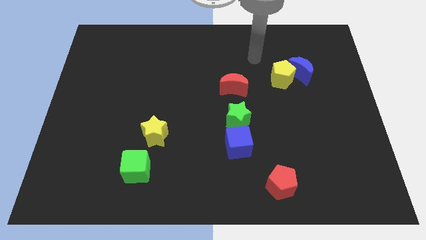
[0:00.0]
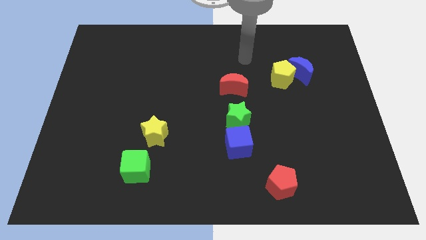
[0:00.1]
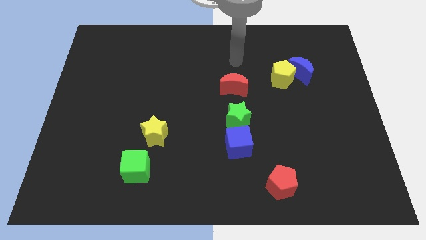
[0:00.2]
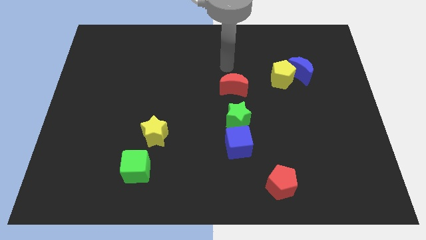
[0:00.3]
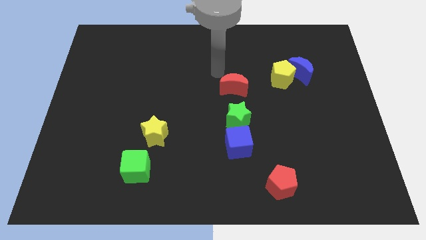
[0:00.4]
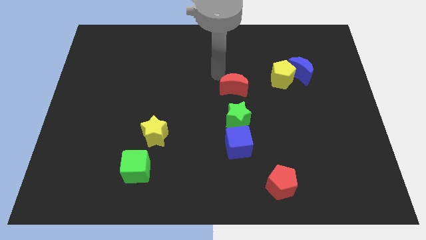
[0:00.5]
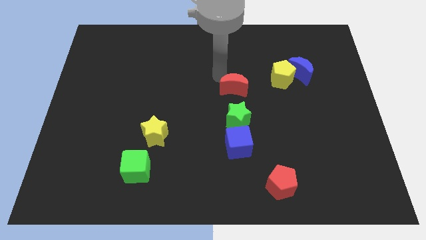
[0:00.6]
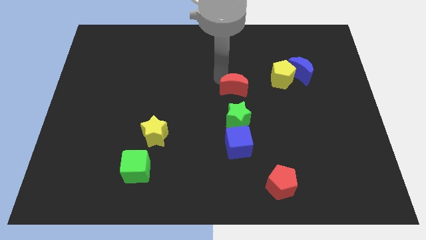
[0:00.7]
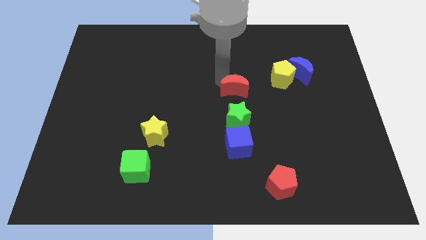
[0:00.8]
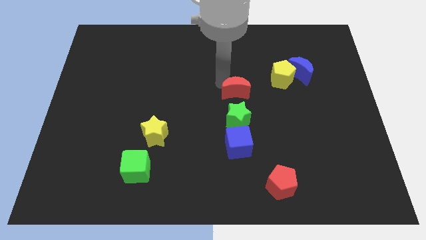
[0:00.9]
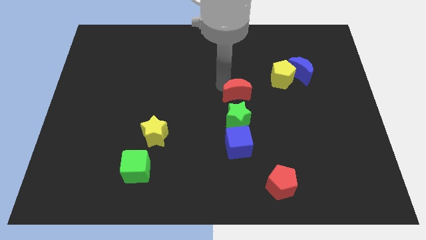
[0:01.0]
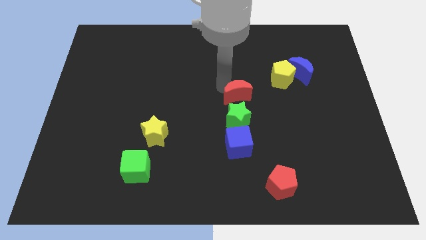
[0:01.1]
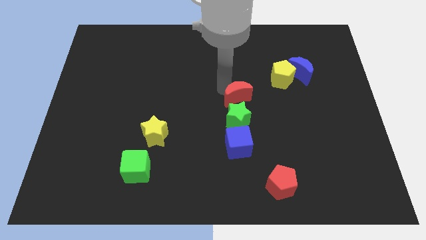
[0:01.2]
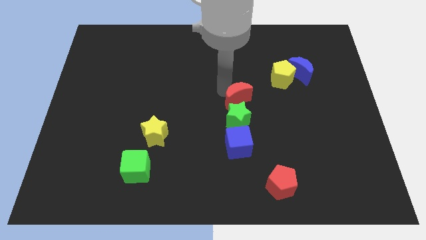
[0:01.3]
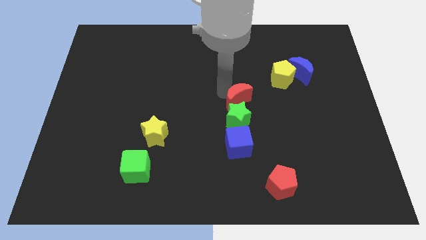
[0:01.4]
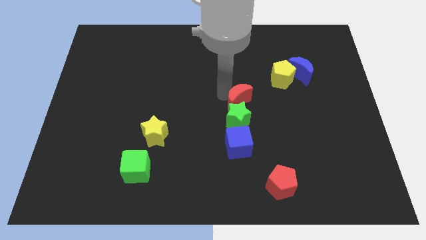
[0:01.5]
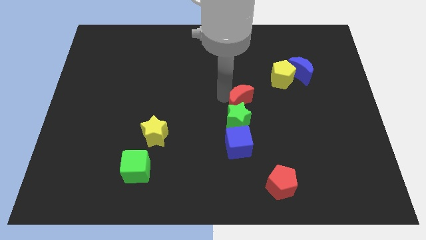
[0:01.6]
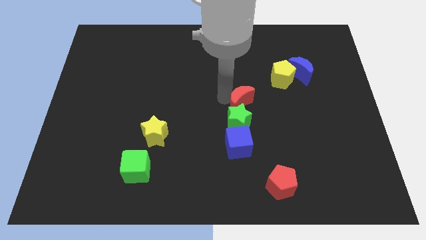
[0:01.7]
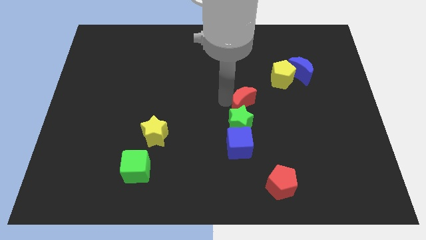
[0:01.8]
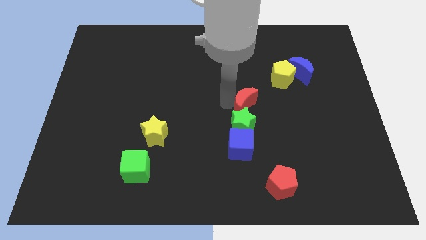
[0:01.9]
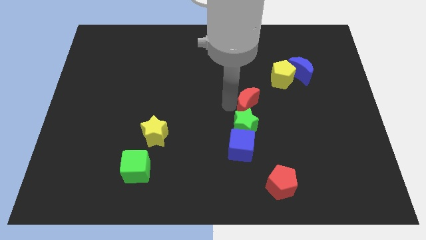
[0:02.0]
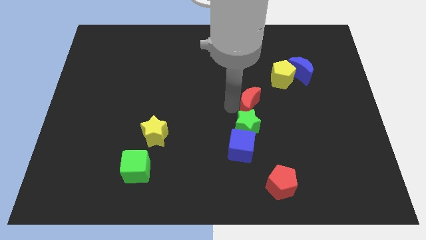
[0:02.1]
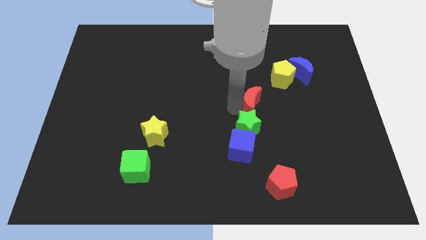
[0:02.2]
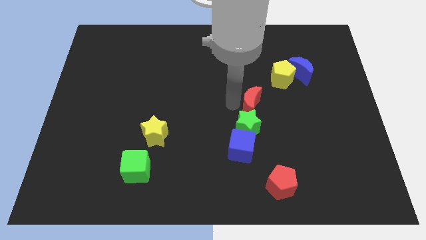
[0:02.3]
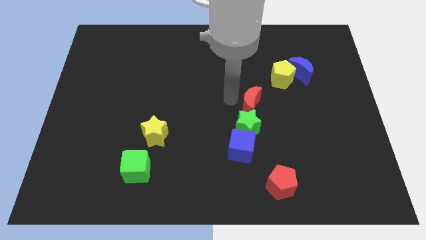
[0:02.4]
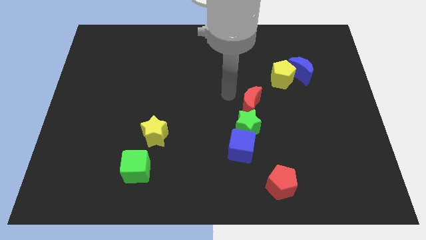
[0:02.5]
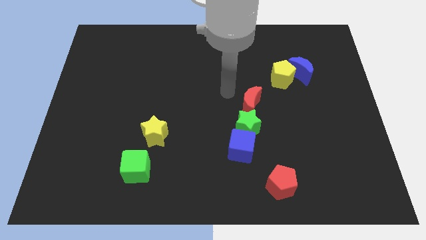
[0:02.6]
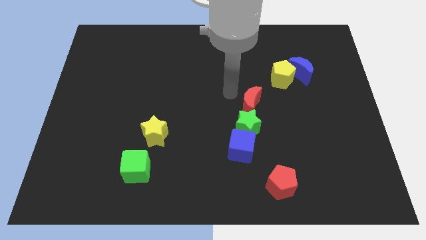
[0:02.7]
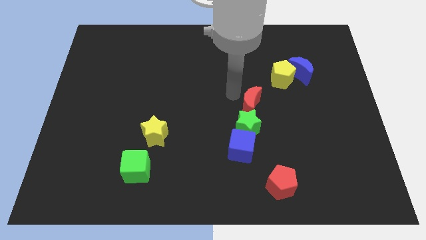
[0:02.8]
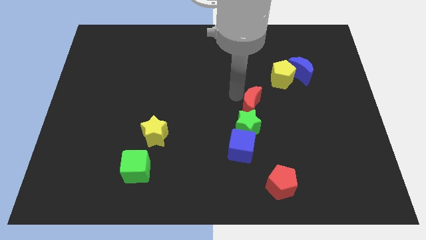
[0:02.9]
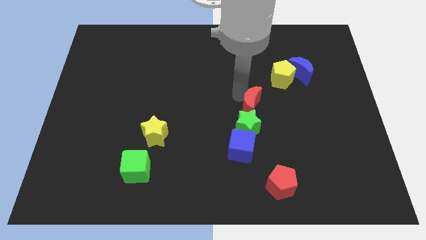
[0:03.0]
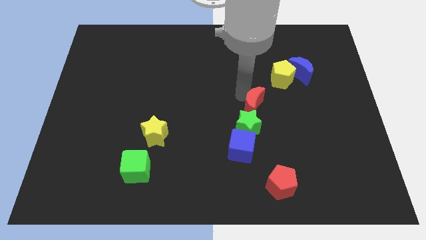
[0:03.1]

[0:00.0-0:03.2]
slide the red moon down and then right a bit

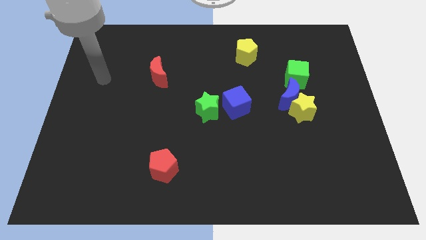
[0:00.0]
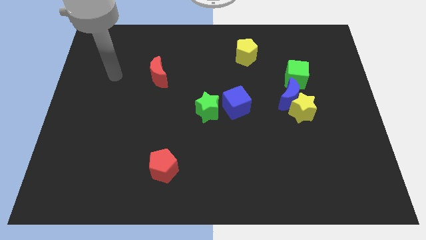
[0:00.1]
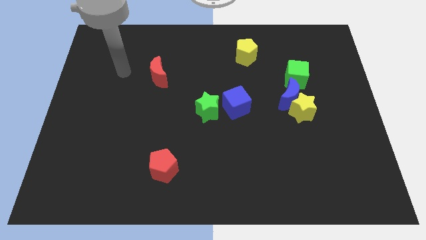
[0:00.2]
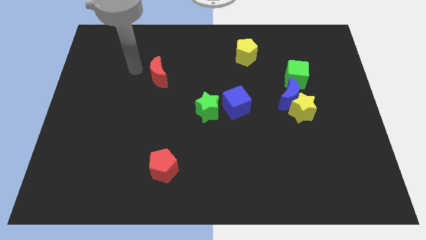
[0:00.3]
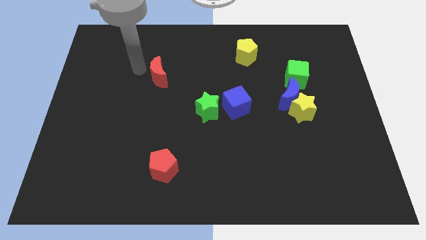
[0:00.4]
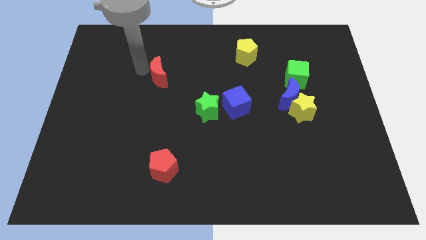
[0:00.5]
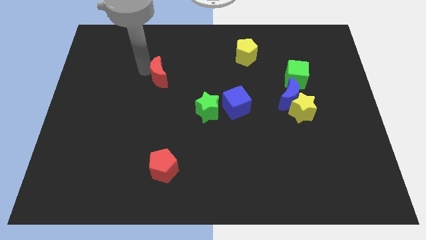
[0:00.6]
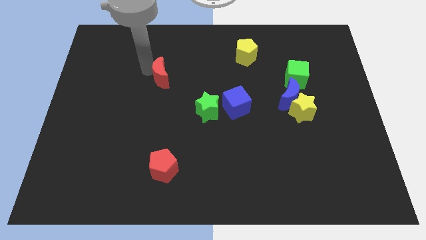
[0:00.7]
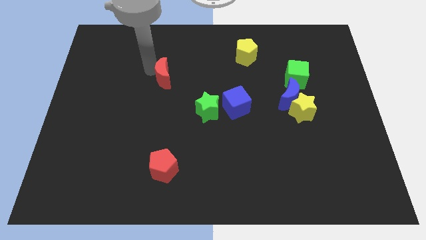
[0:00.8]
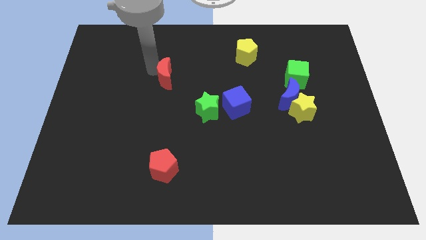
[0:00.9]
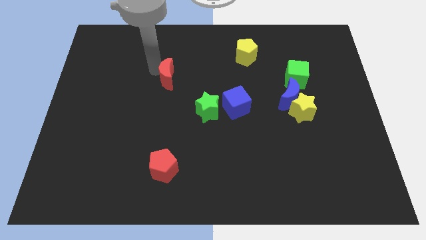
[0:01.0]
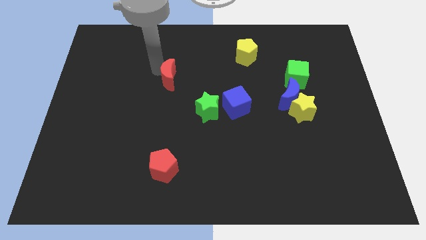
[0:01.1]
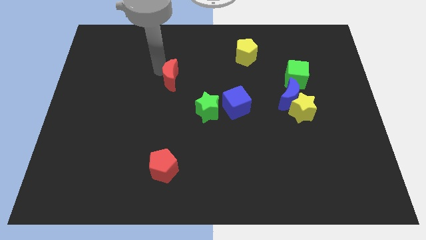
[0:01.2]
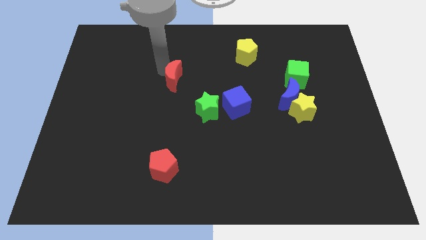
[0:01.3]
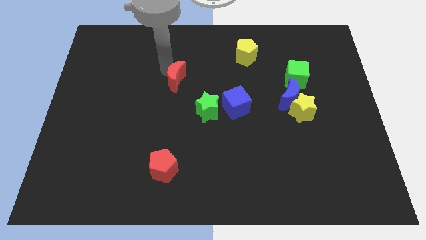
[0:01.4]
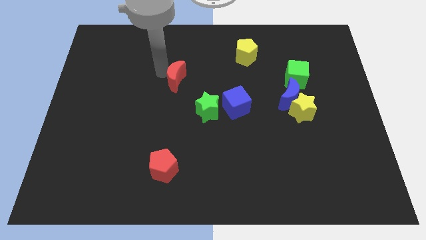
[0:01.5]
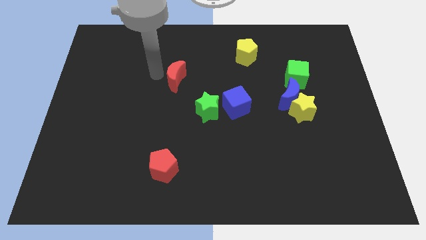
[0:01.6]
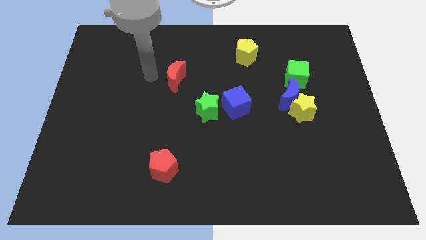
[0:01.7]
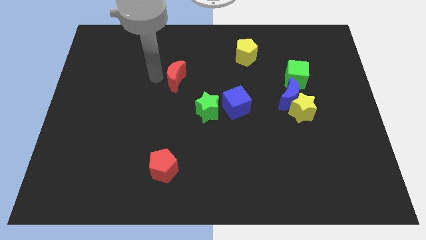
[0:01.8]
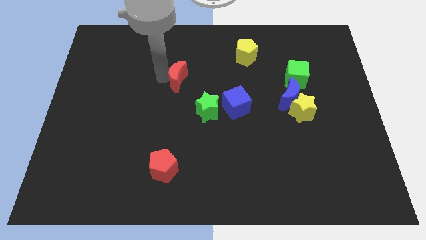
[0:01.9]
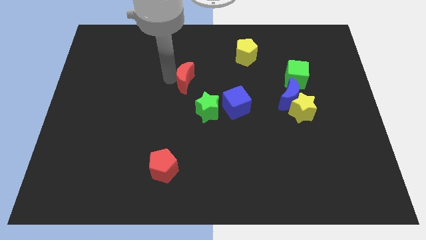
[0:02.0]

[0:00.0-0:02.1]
push the red moon right a little bit

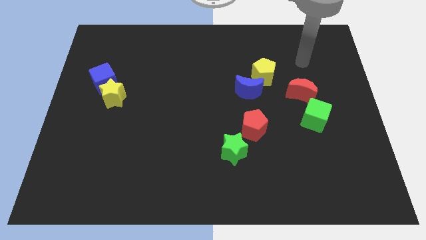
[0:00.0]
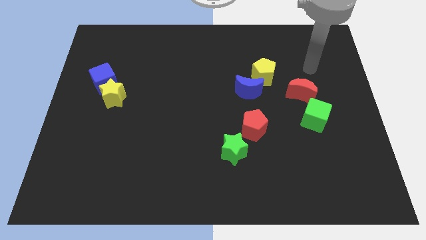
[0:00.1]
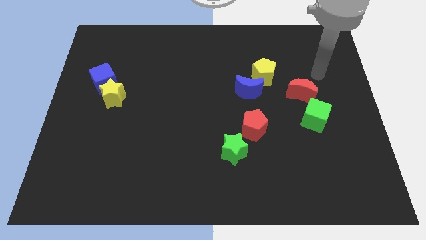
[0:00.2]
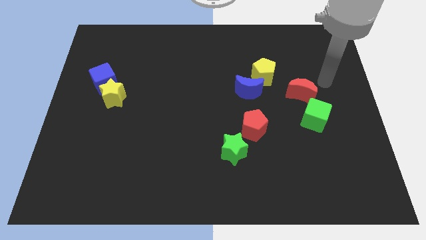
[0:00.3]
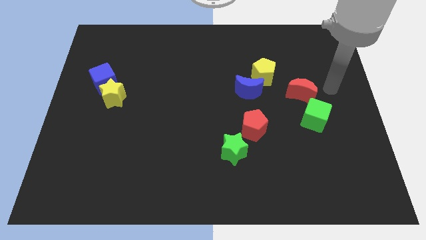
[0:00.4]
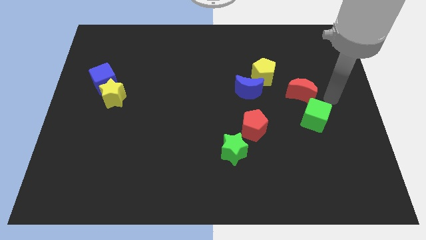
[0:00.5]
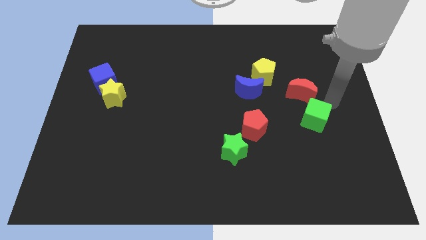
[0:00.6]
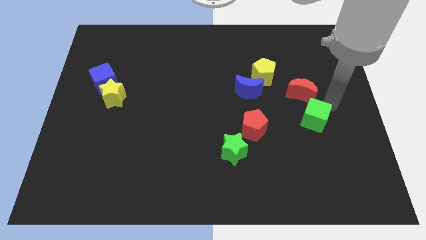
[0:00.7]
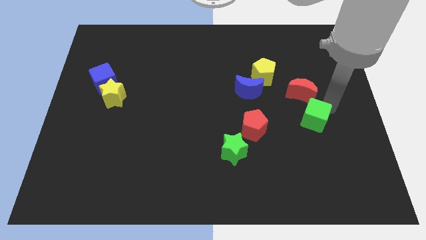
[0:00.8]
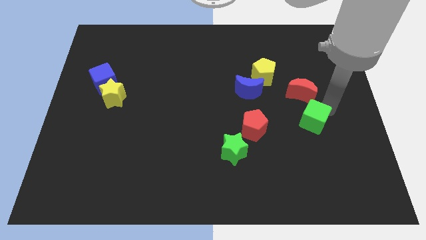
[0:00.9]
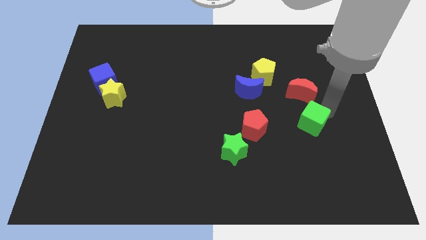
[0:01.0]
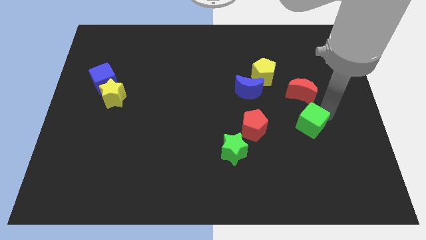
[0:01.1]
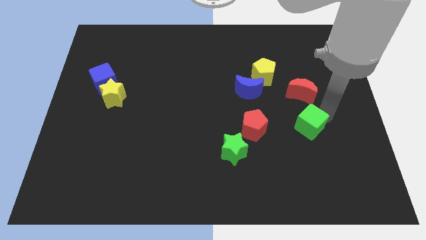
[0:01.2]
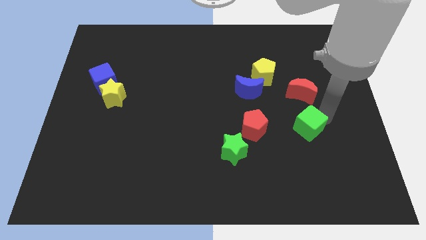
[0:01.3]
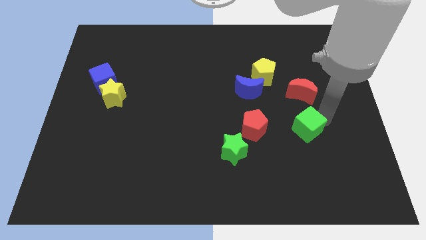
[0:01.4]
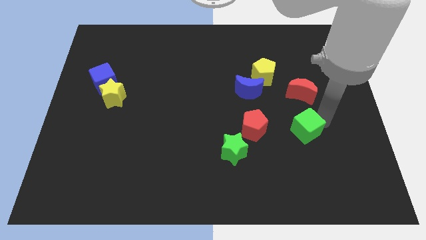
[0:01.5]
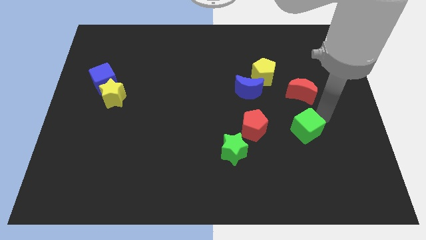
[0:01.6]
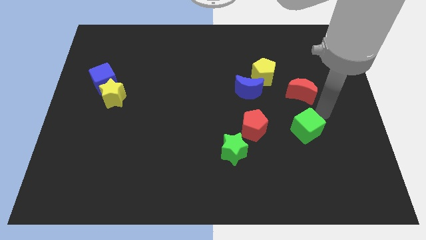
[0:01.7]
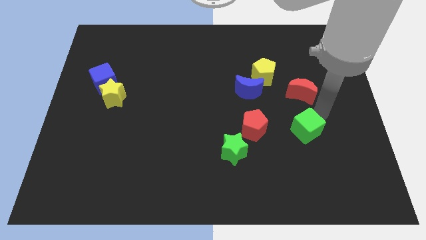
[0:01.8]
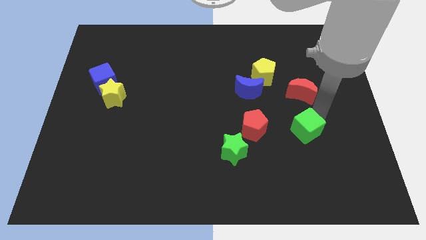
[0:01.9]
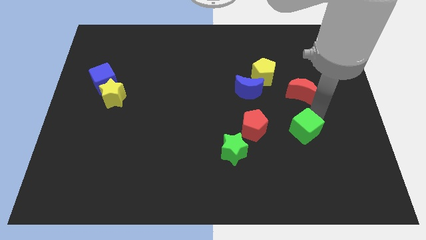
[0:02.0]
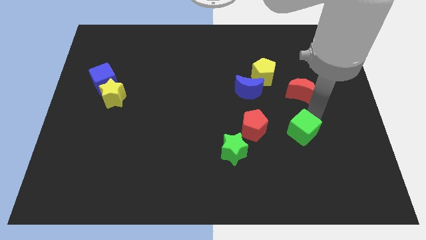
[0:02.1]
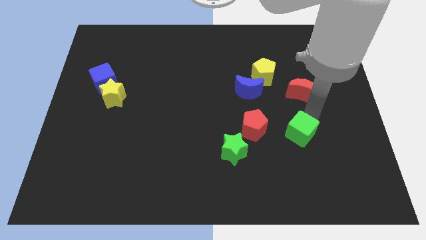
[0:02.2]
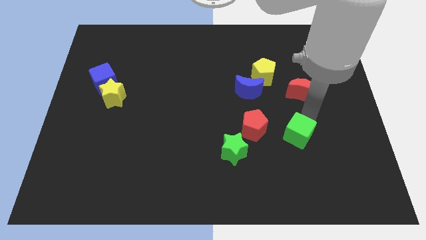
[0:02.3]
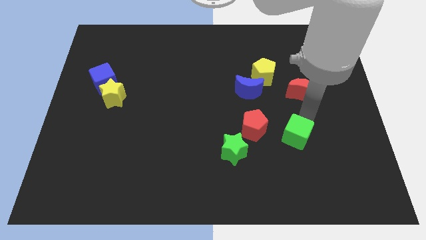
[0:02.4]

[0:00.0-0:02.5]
slide the green cube down and to the left a bit

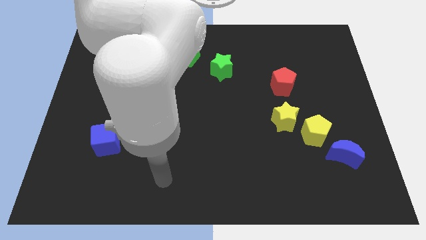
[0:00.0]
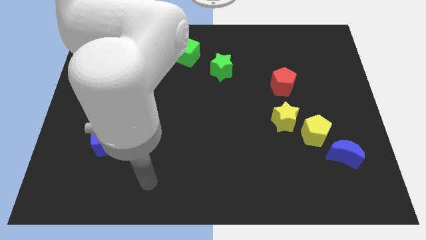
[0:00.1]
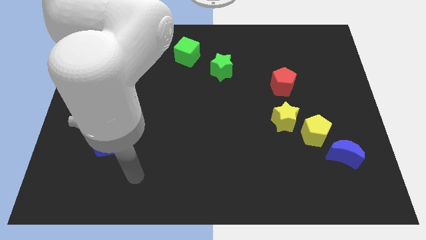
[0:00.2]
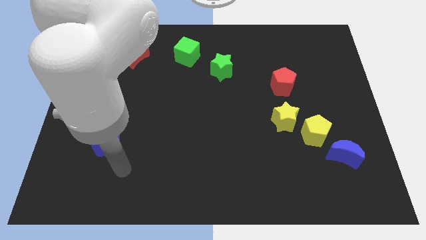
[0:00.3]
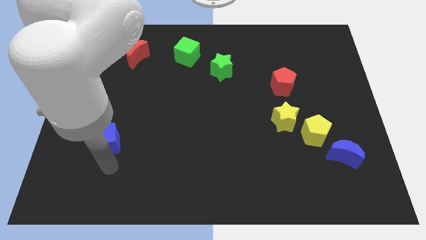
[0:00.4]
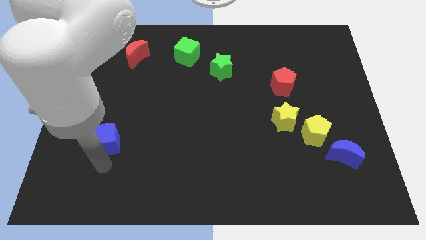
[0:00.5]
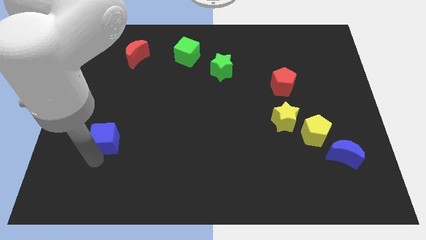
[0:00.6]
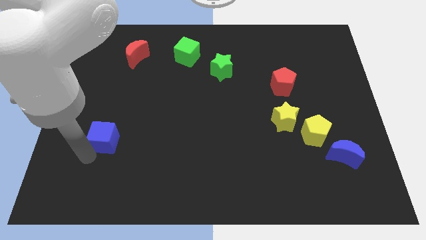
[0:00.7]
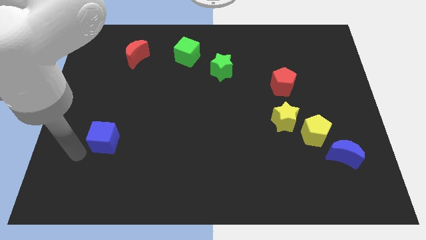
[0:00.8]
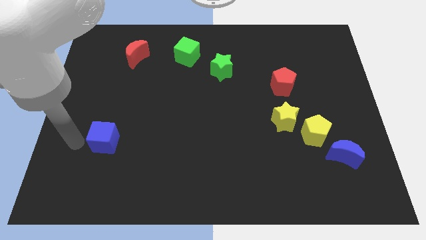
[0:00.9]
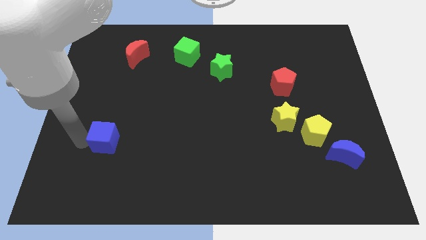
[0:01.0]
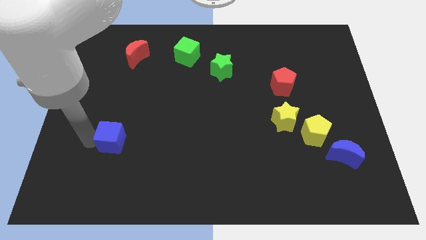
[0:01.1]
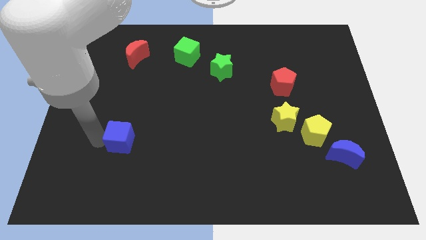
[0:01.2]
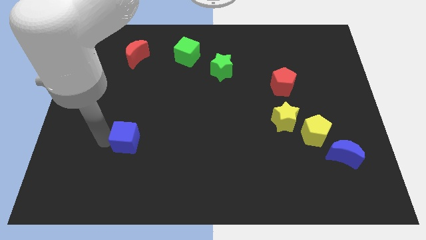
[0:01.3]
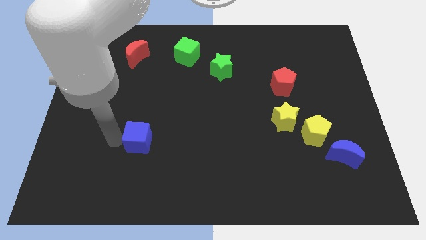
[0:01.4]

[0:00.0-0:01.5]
push the blue cube to the right slightly
